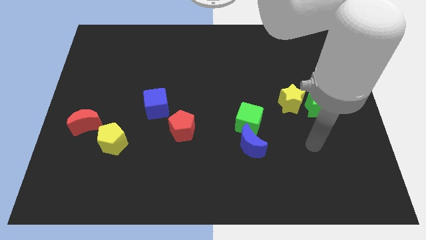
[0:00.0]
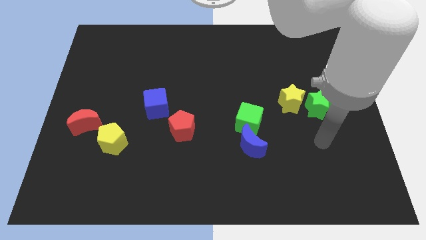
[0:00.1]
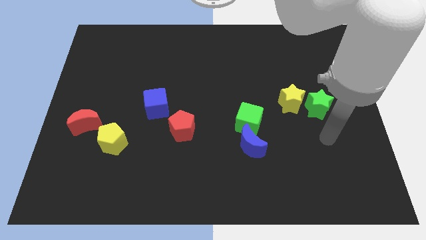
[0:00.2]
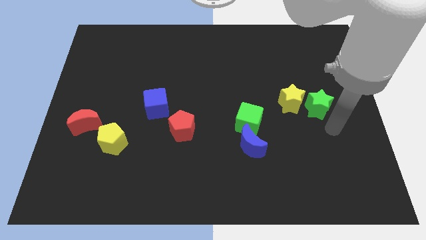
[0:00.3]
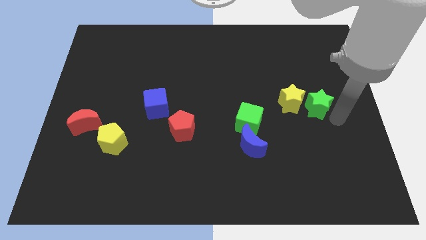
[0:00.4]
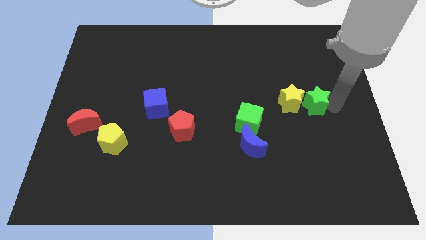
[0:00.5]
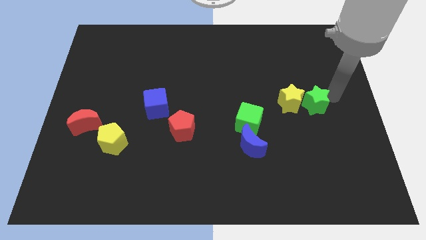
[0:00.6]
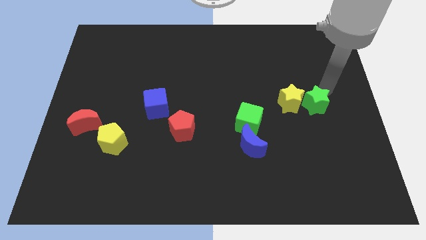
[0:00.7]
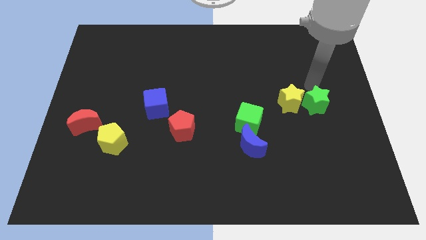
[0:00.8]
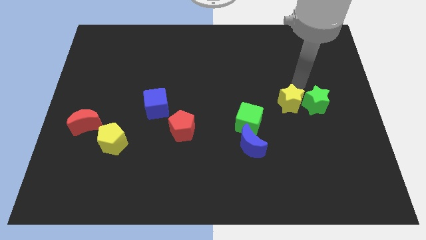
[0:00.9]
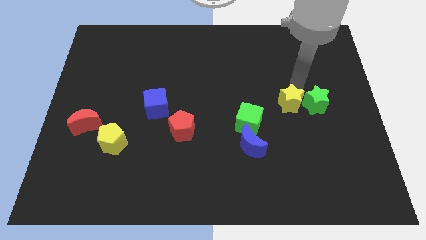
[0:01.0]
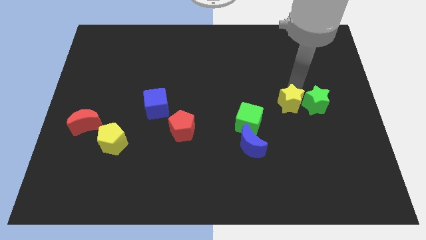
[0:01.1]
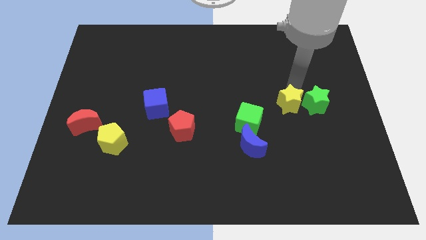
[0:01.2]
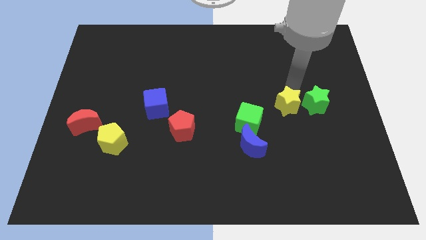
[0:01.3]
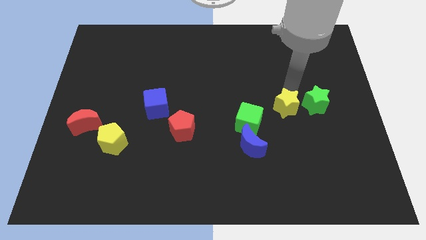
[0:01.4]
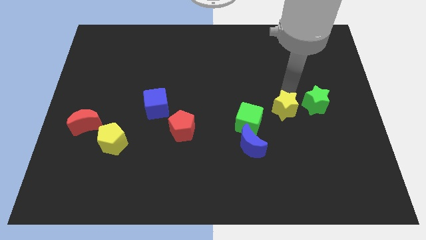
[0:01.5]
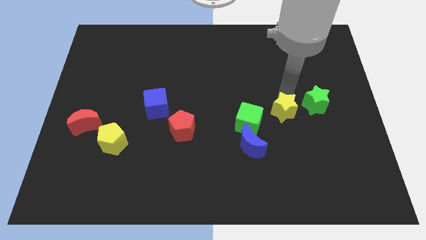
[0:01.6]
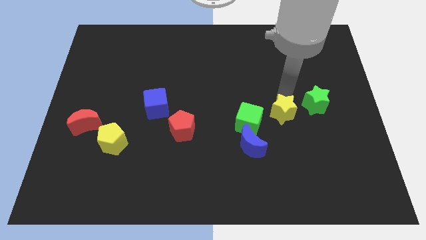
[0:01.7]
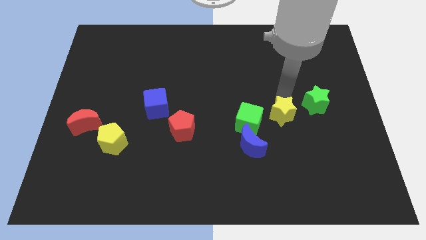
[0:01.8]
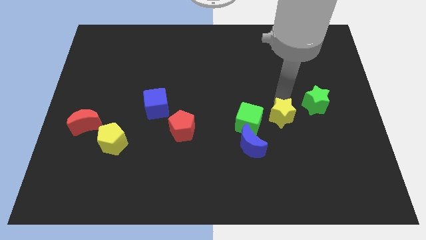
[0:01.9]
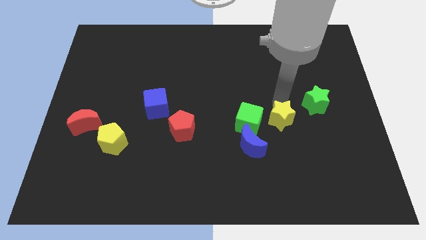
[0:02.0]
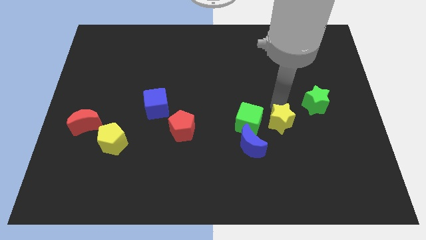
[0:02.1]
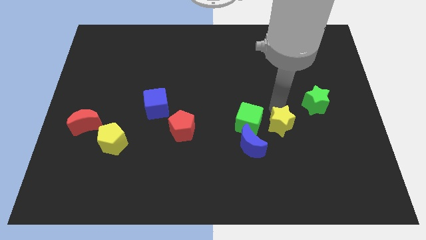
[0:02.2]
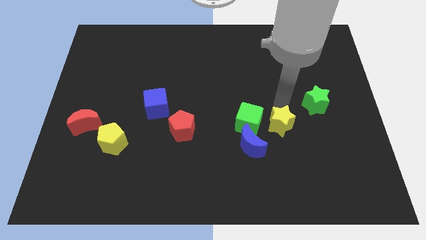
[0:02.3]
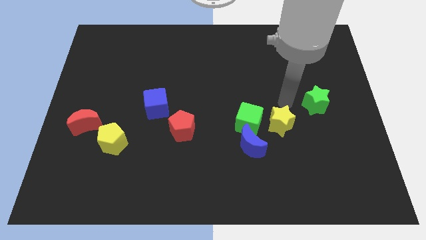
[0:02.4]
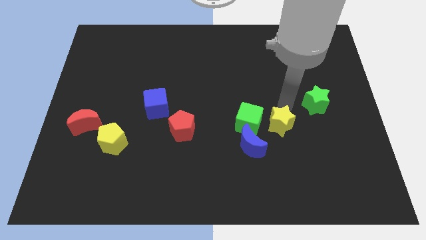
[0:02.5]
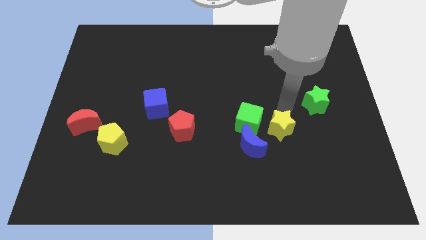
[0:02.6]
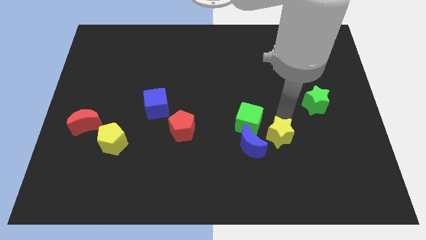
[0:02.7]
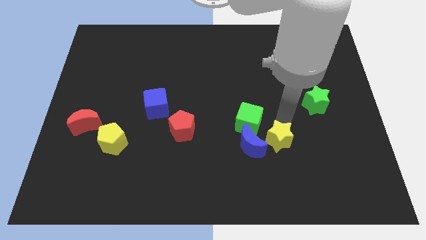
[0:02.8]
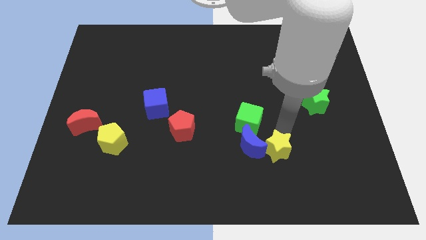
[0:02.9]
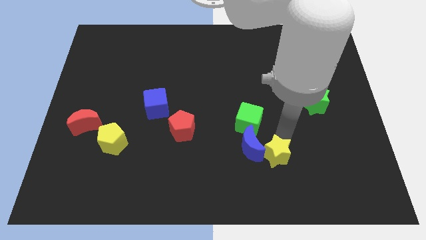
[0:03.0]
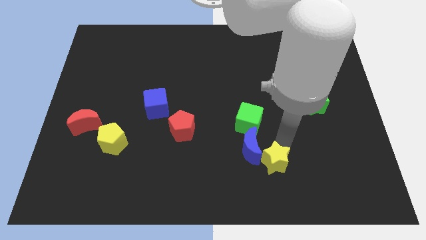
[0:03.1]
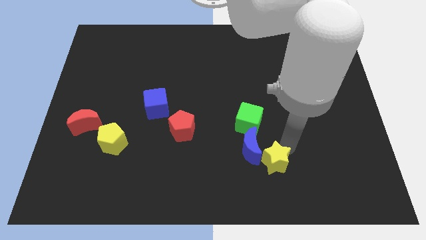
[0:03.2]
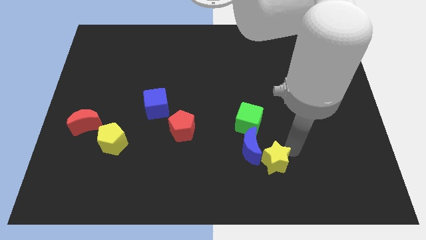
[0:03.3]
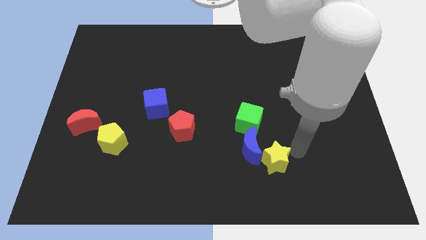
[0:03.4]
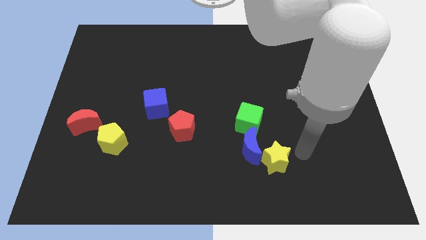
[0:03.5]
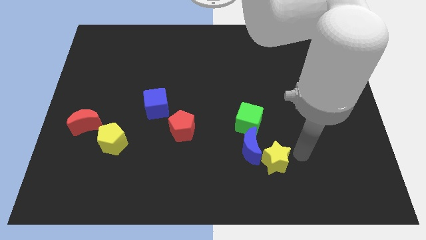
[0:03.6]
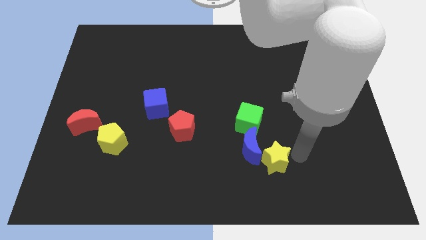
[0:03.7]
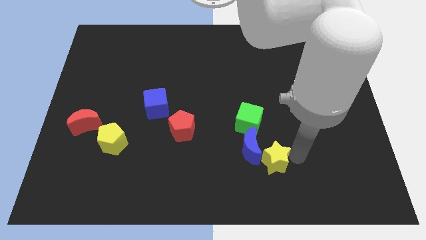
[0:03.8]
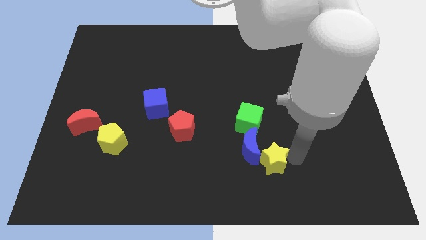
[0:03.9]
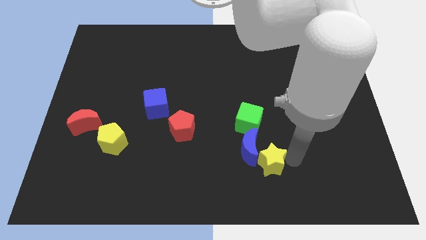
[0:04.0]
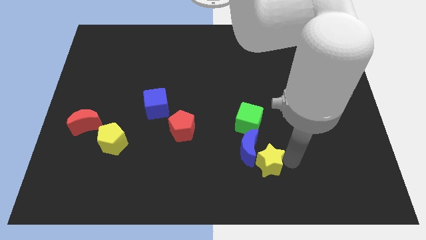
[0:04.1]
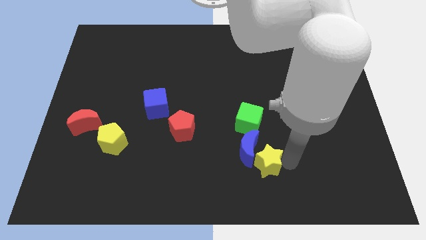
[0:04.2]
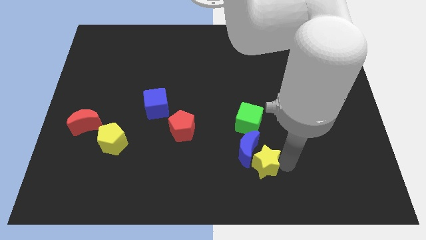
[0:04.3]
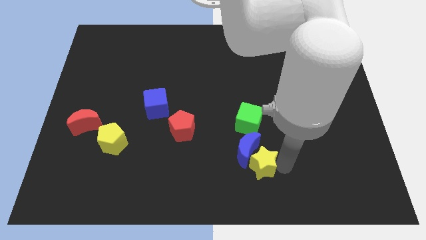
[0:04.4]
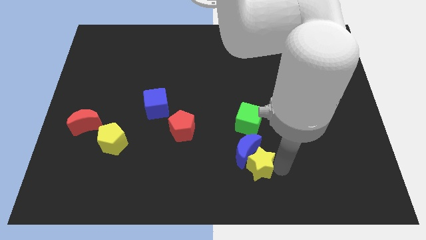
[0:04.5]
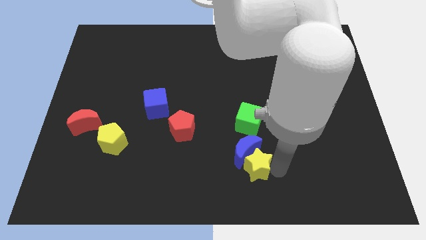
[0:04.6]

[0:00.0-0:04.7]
slide the yellow star to the bottom

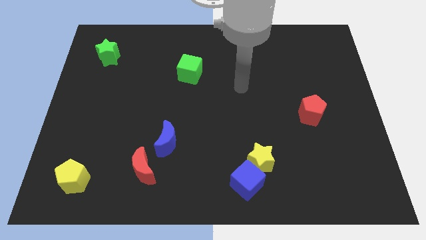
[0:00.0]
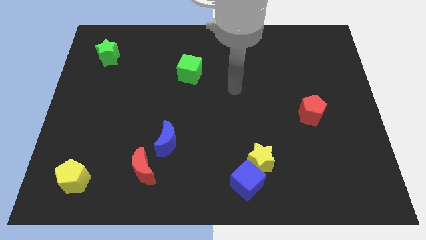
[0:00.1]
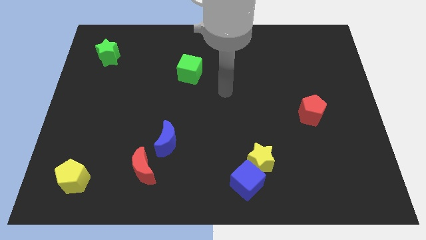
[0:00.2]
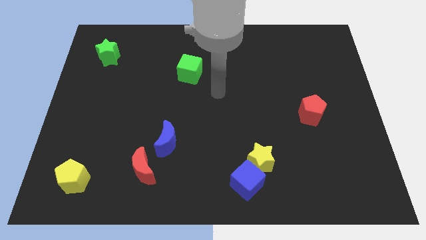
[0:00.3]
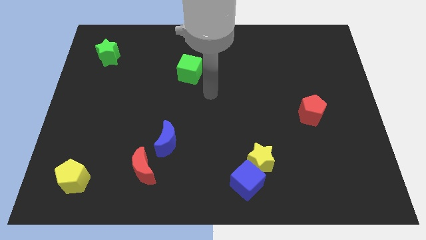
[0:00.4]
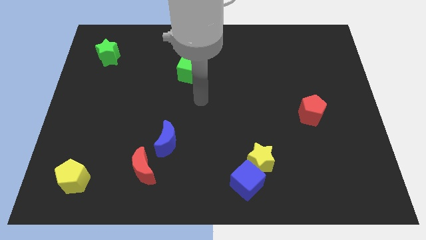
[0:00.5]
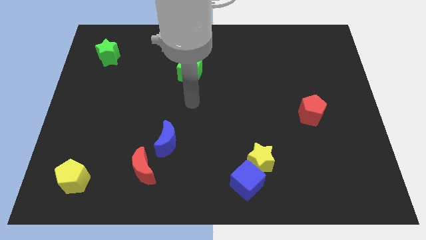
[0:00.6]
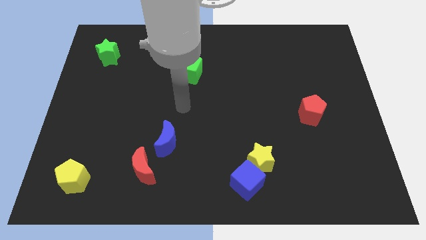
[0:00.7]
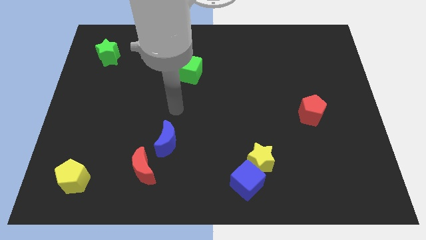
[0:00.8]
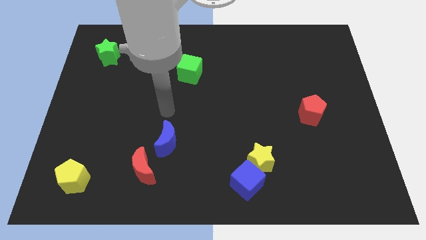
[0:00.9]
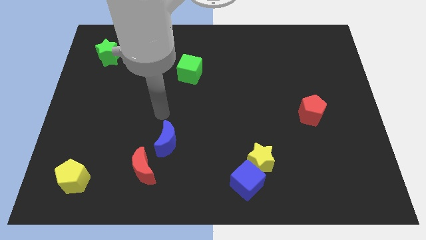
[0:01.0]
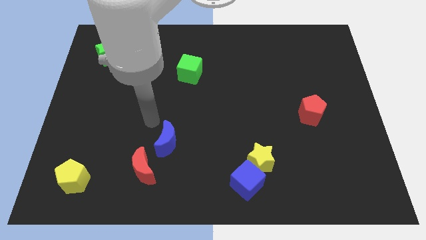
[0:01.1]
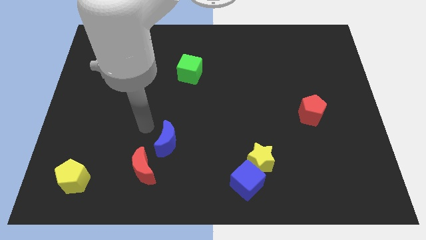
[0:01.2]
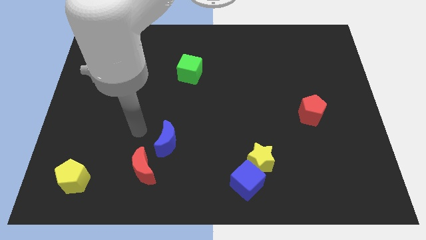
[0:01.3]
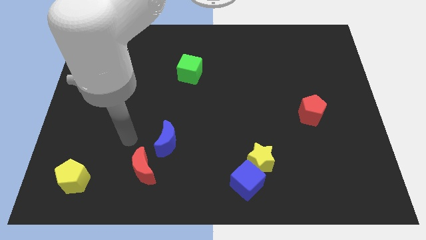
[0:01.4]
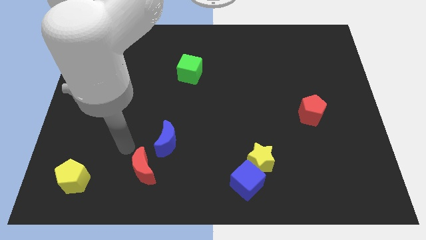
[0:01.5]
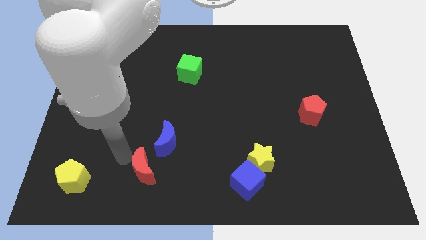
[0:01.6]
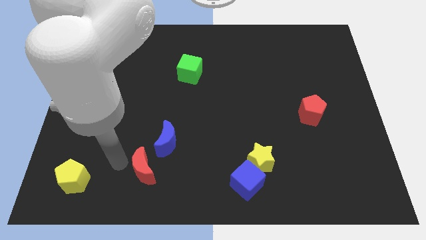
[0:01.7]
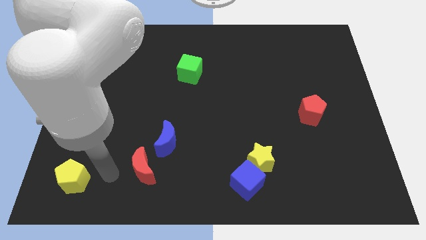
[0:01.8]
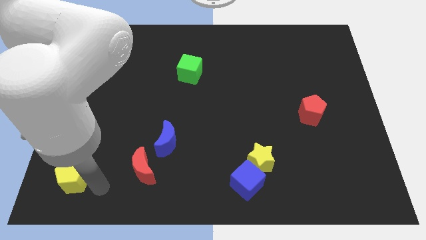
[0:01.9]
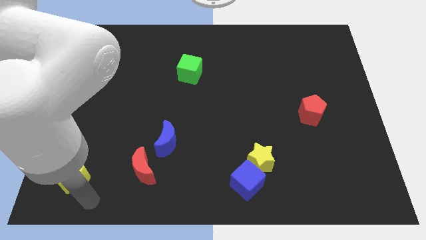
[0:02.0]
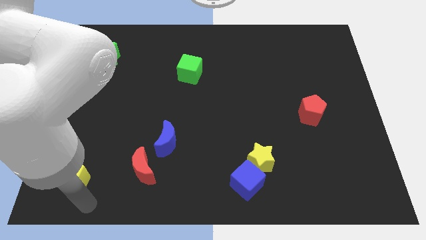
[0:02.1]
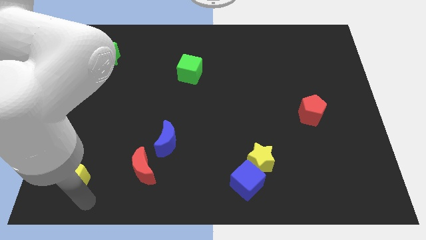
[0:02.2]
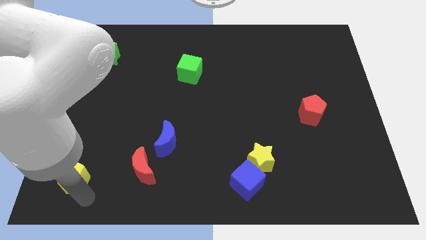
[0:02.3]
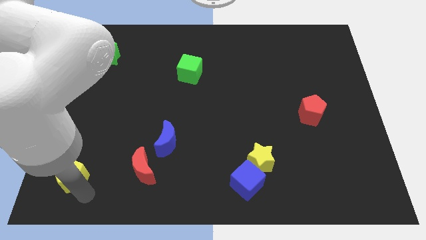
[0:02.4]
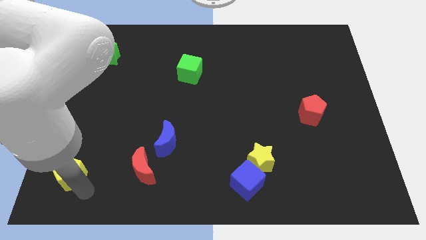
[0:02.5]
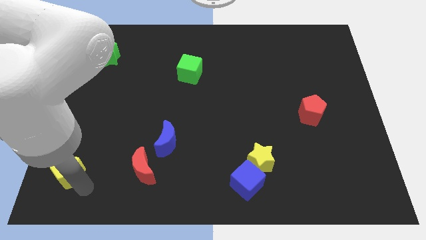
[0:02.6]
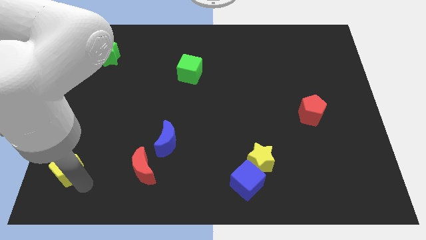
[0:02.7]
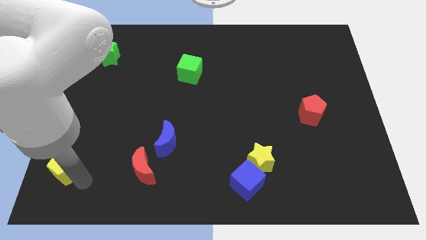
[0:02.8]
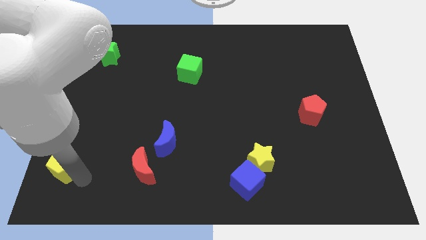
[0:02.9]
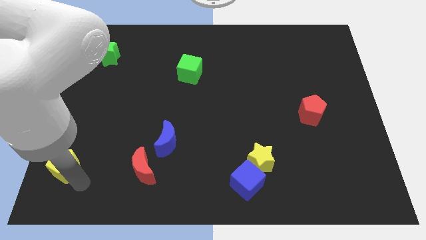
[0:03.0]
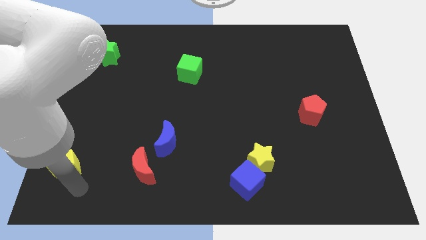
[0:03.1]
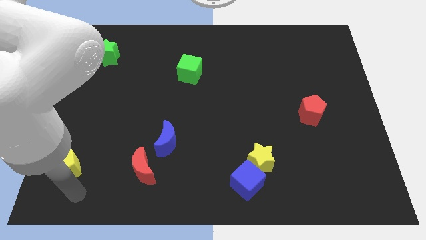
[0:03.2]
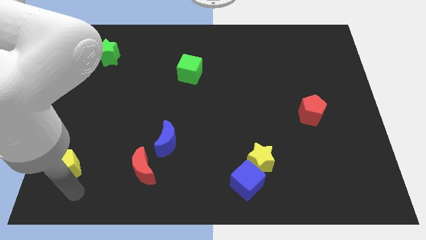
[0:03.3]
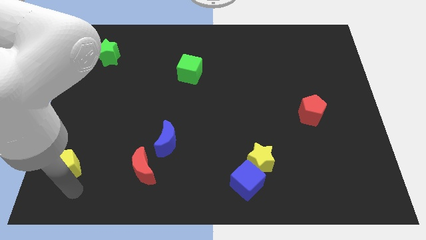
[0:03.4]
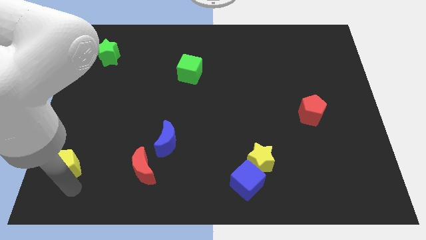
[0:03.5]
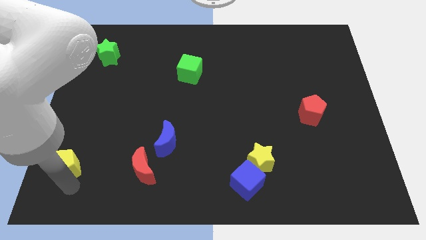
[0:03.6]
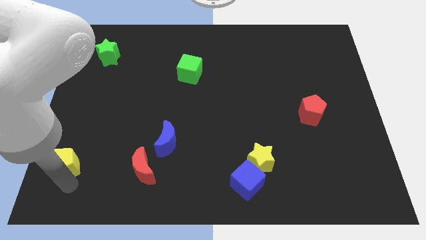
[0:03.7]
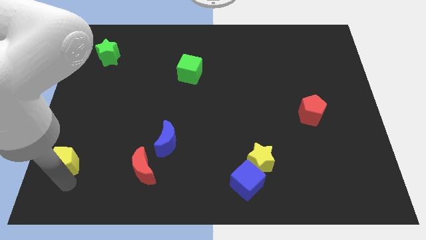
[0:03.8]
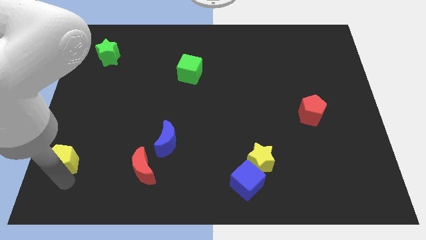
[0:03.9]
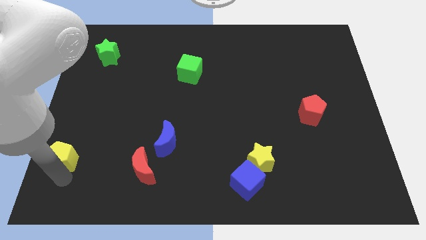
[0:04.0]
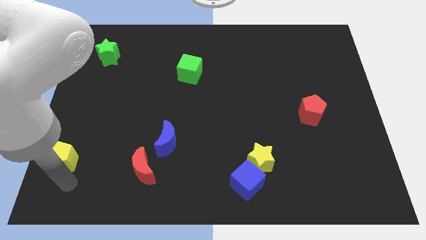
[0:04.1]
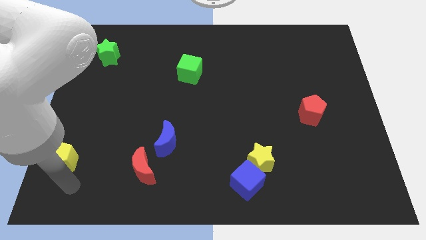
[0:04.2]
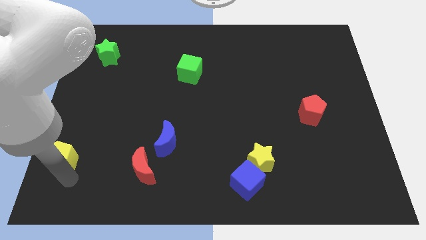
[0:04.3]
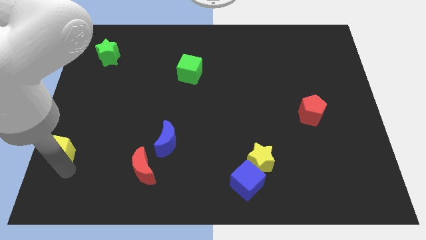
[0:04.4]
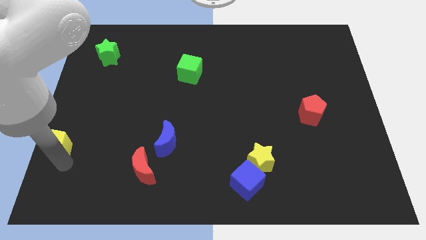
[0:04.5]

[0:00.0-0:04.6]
push the yellow pentagon to the center left
